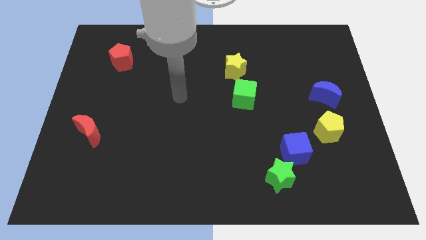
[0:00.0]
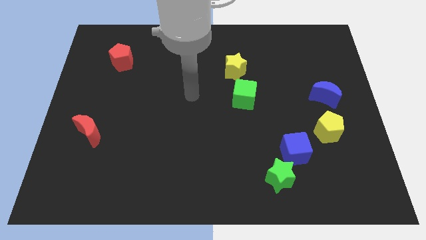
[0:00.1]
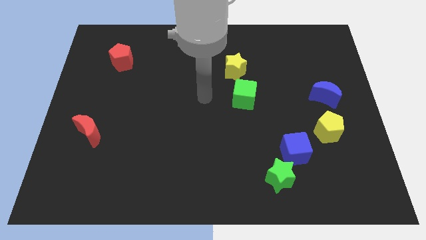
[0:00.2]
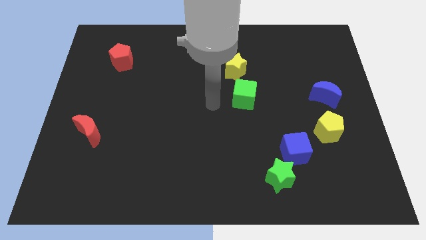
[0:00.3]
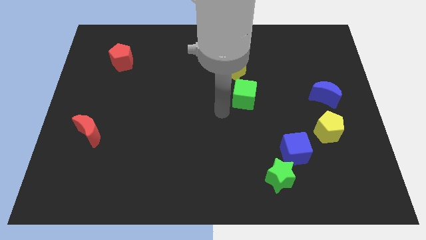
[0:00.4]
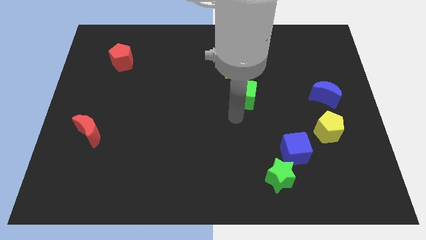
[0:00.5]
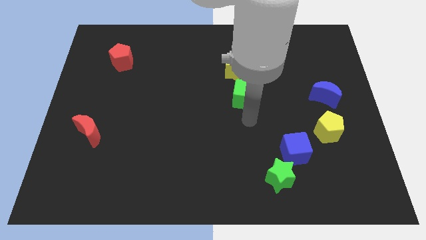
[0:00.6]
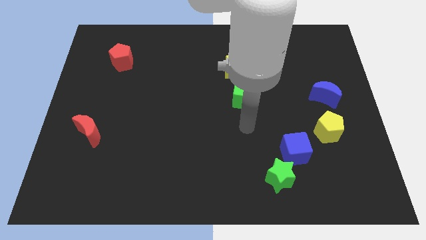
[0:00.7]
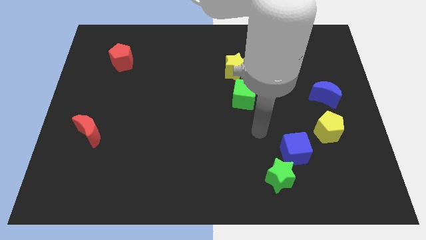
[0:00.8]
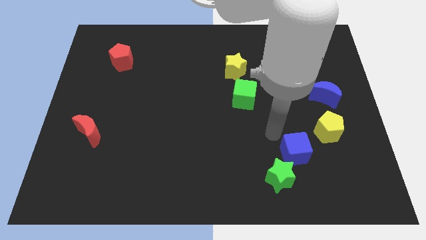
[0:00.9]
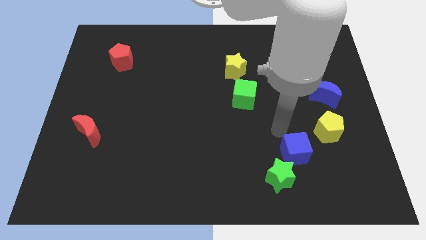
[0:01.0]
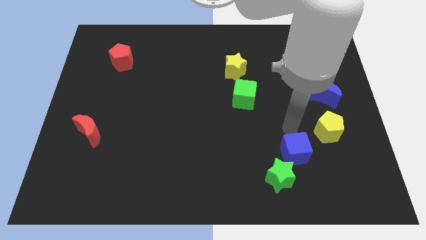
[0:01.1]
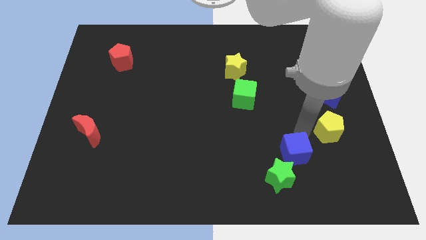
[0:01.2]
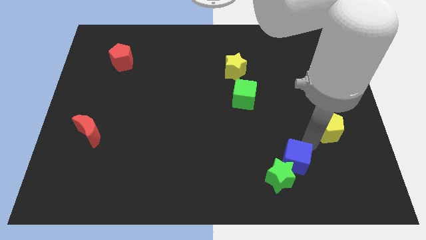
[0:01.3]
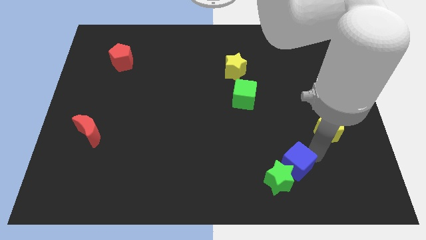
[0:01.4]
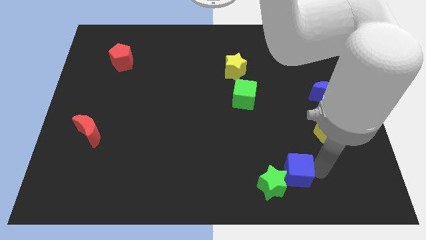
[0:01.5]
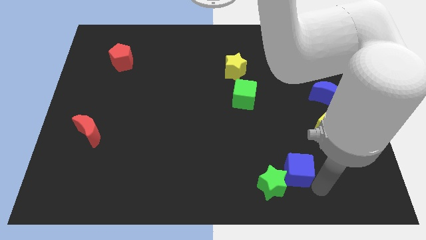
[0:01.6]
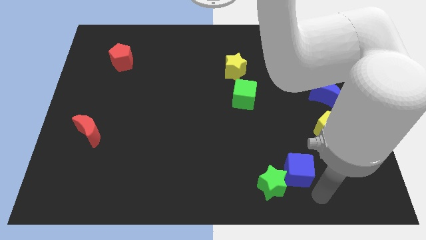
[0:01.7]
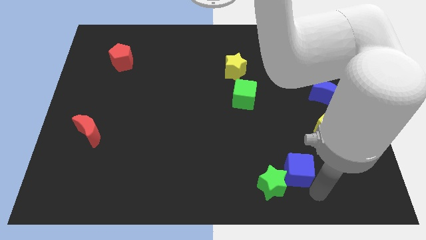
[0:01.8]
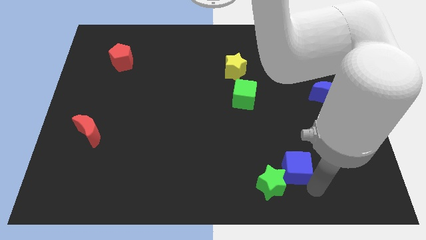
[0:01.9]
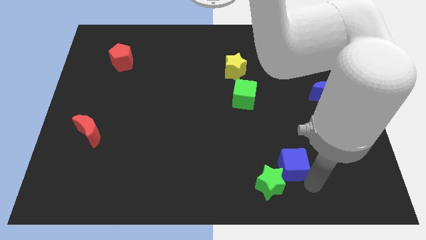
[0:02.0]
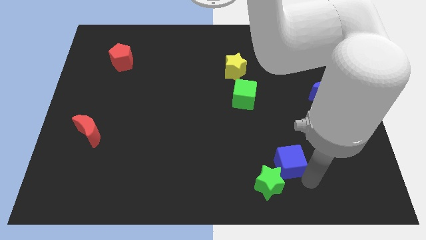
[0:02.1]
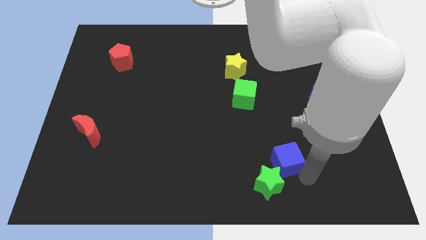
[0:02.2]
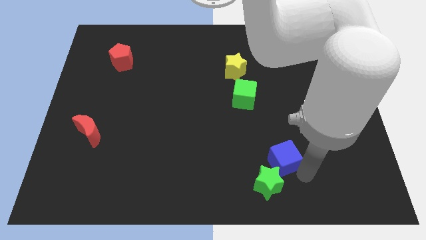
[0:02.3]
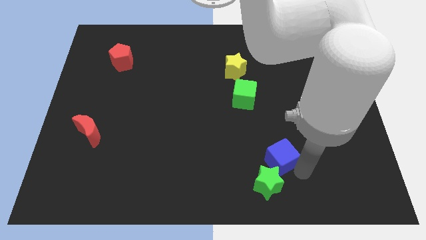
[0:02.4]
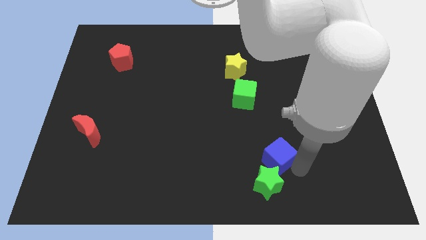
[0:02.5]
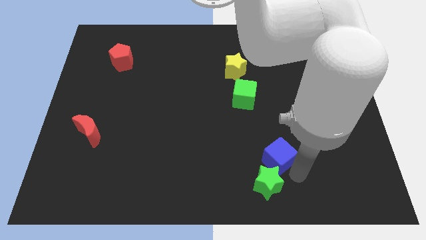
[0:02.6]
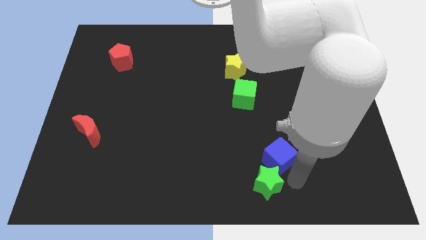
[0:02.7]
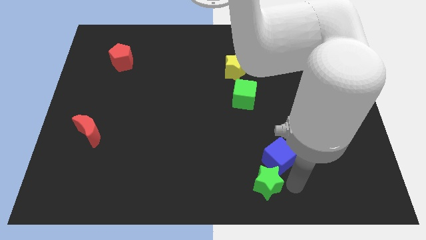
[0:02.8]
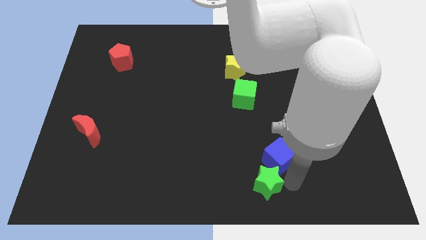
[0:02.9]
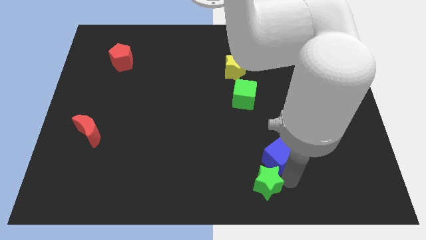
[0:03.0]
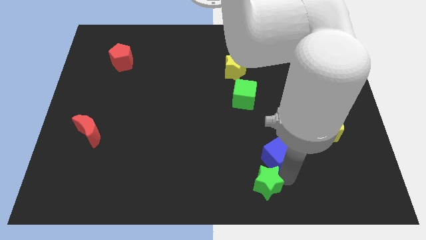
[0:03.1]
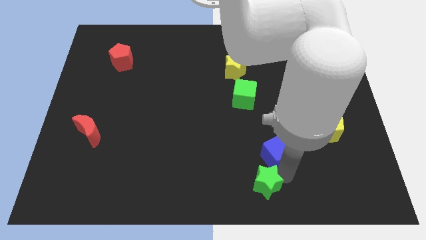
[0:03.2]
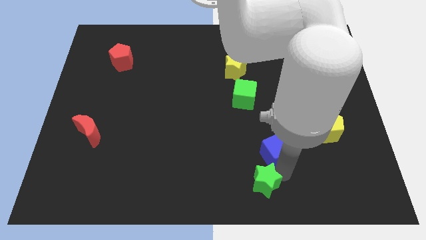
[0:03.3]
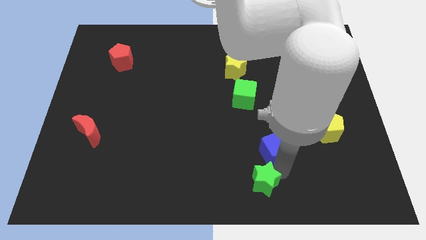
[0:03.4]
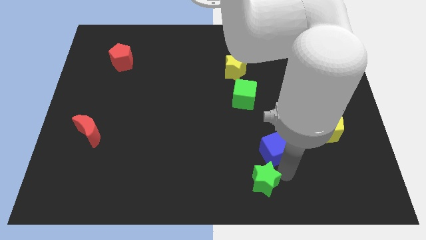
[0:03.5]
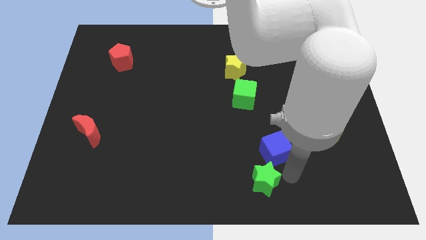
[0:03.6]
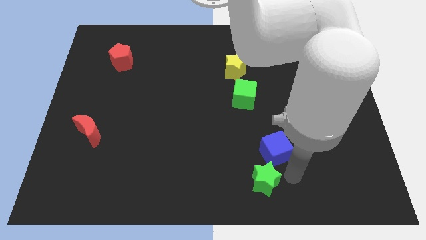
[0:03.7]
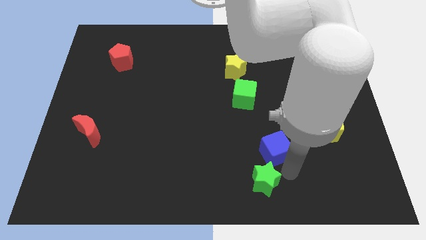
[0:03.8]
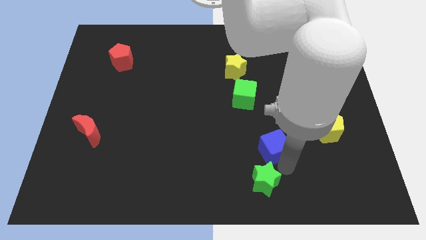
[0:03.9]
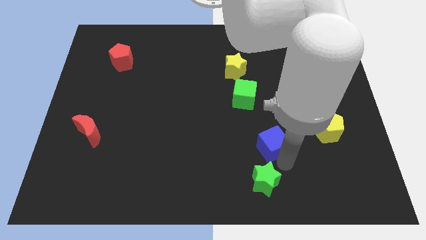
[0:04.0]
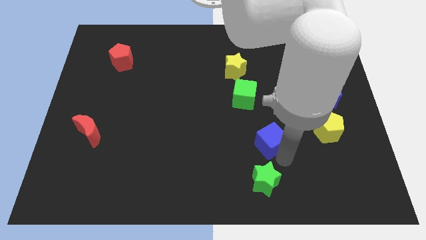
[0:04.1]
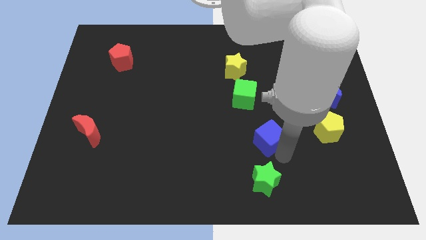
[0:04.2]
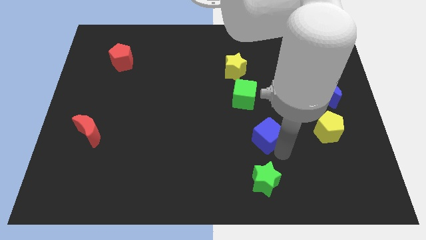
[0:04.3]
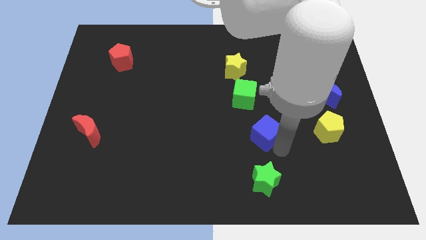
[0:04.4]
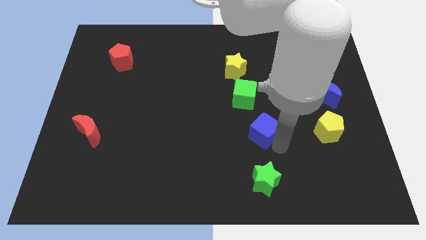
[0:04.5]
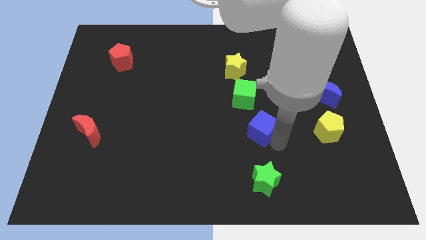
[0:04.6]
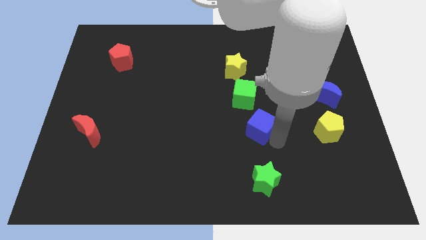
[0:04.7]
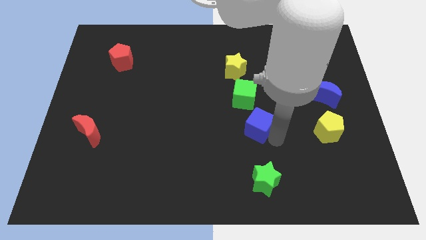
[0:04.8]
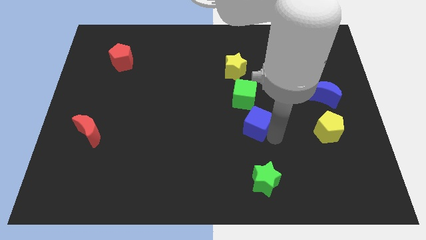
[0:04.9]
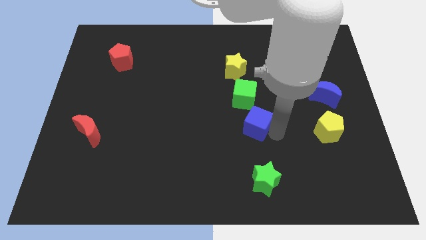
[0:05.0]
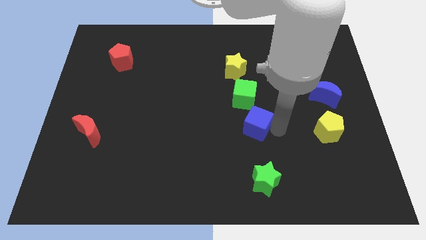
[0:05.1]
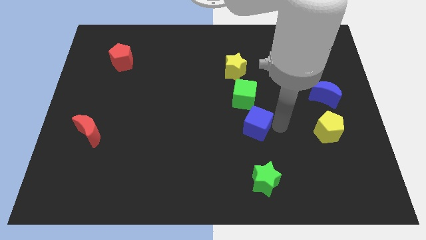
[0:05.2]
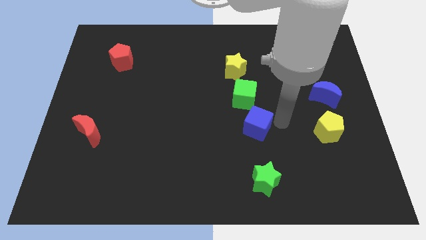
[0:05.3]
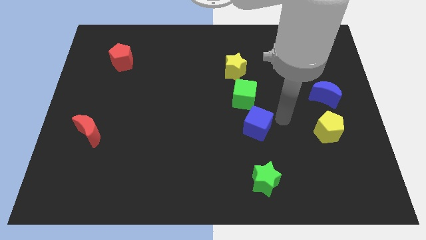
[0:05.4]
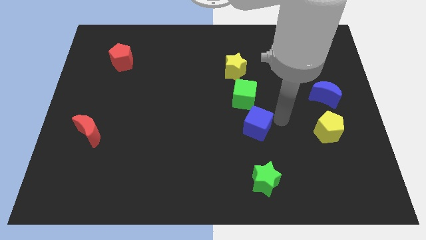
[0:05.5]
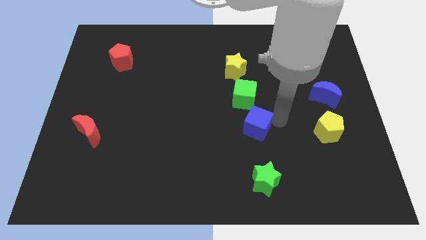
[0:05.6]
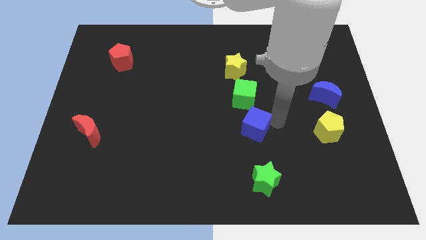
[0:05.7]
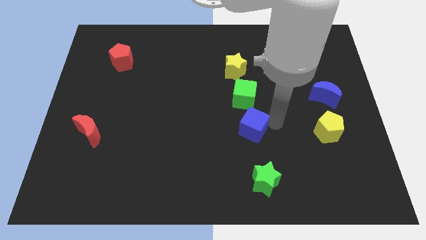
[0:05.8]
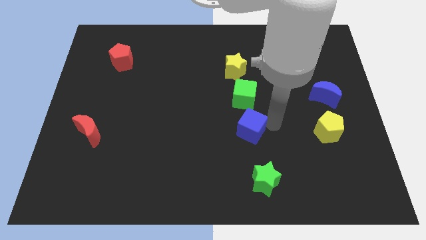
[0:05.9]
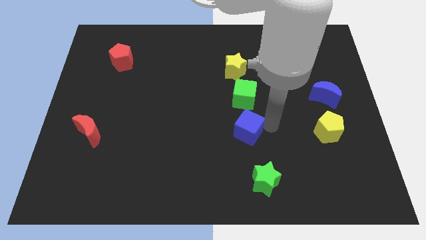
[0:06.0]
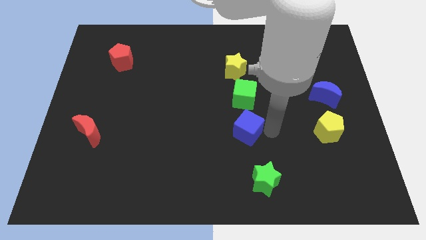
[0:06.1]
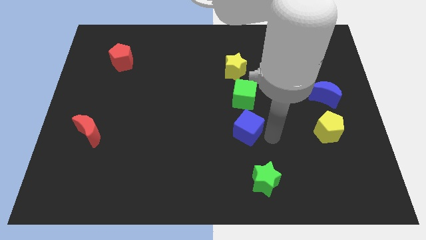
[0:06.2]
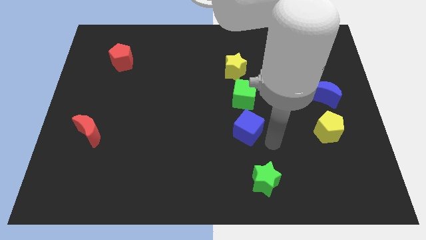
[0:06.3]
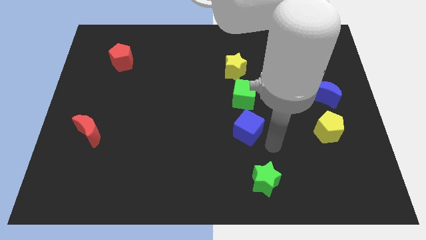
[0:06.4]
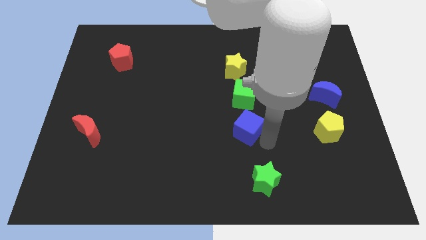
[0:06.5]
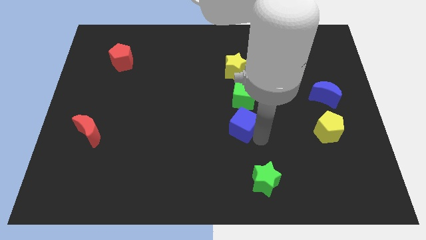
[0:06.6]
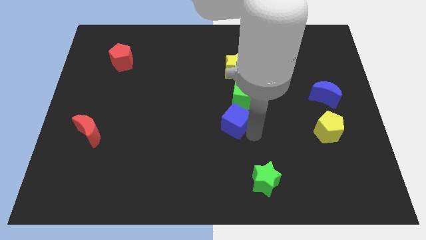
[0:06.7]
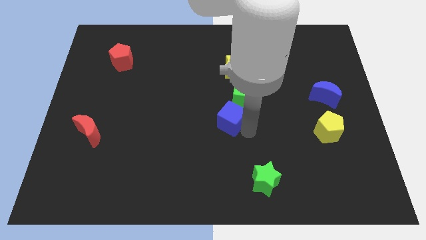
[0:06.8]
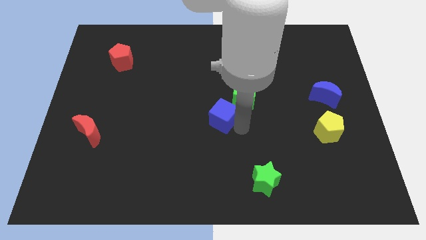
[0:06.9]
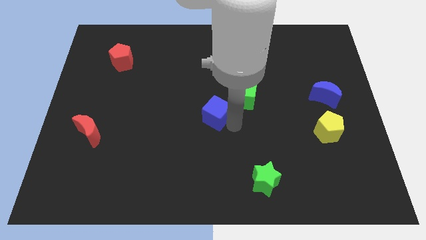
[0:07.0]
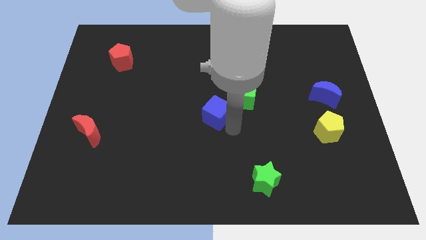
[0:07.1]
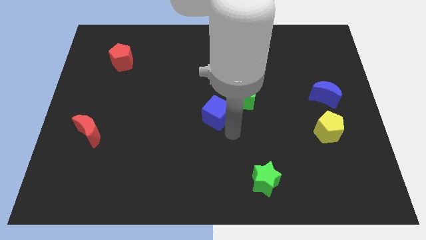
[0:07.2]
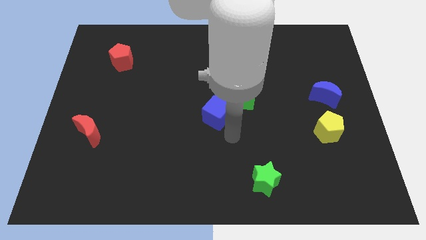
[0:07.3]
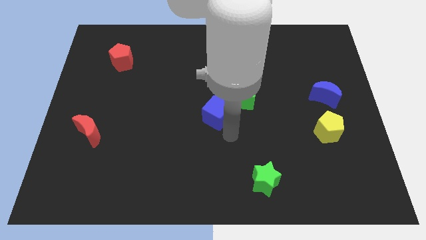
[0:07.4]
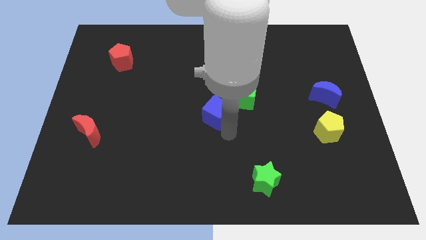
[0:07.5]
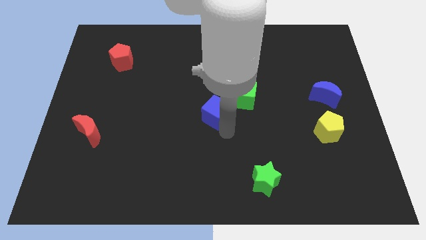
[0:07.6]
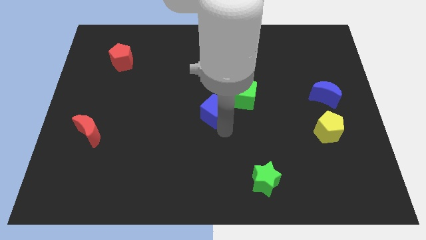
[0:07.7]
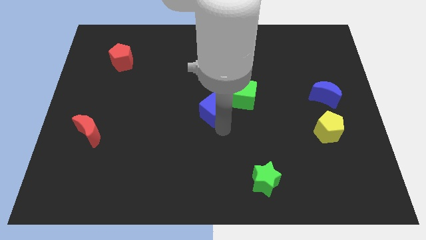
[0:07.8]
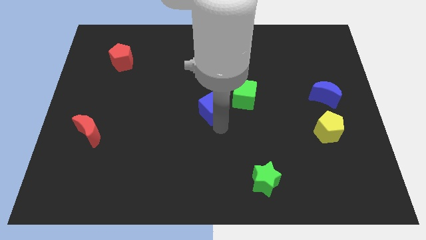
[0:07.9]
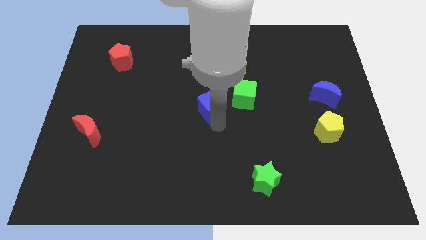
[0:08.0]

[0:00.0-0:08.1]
push the blue cube upwards and then to the left

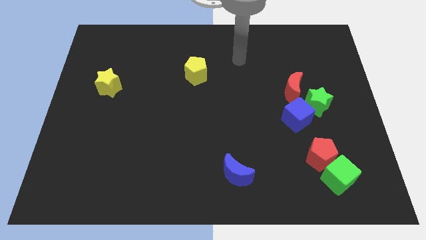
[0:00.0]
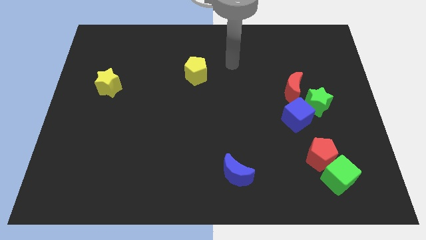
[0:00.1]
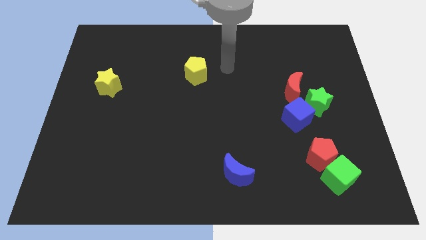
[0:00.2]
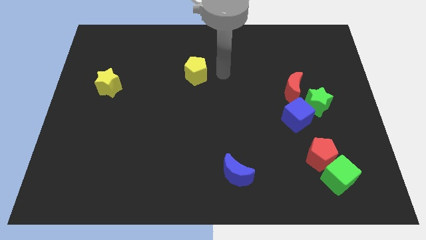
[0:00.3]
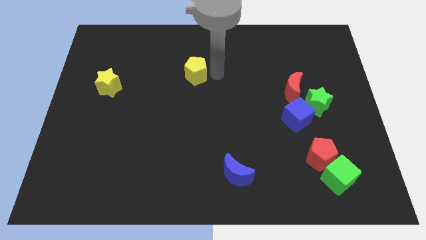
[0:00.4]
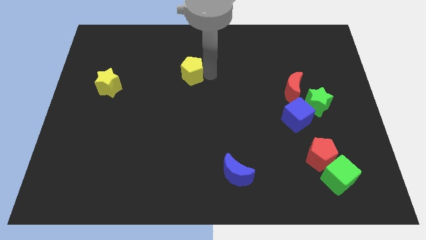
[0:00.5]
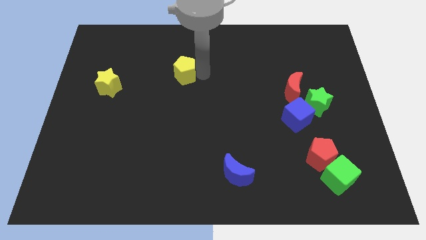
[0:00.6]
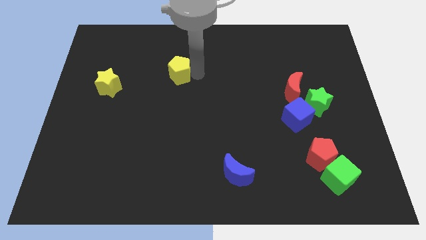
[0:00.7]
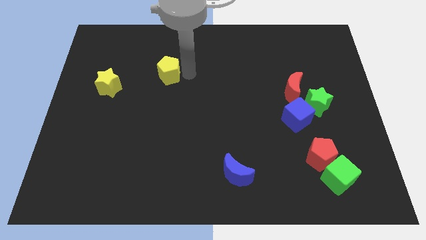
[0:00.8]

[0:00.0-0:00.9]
move the yellow pentagon a little left
